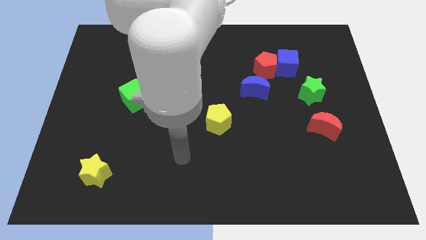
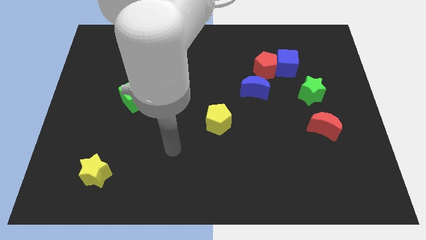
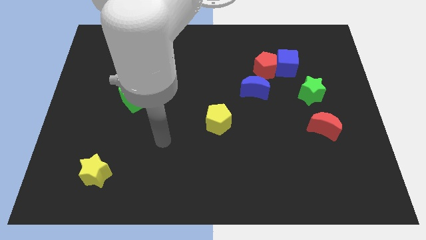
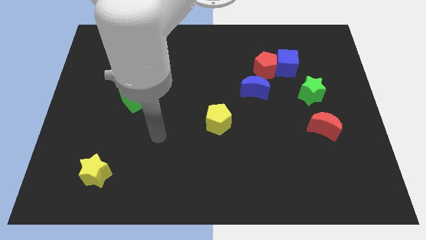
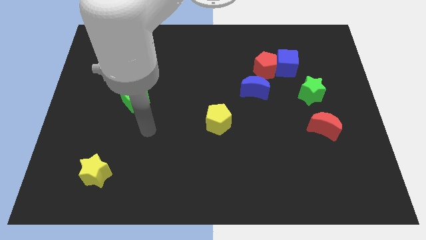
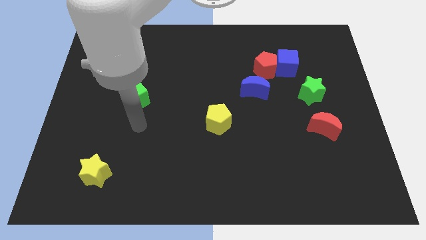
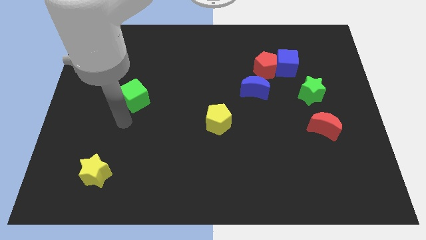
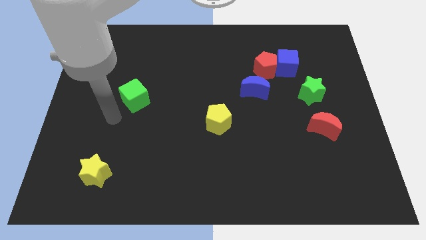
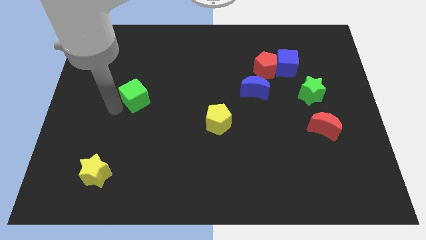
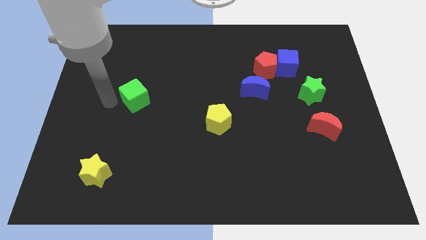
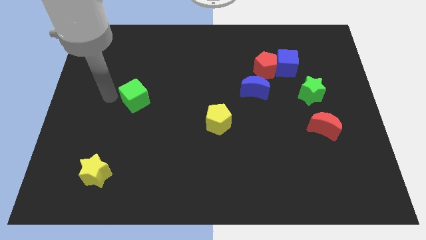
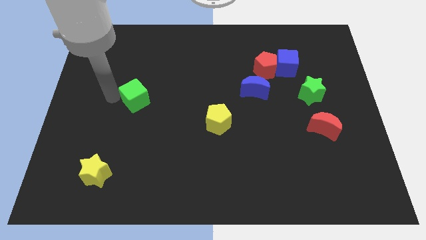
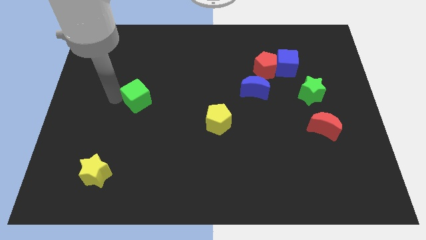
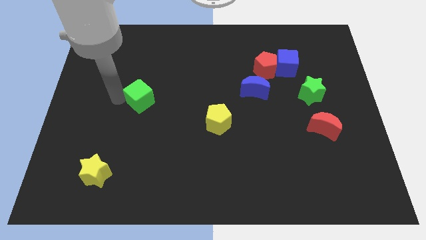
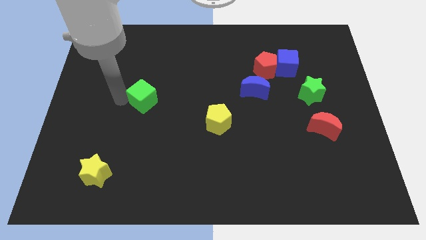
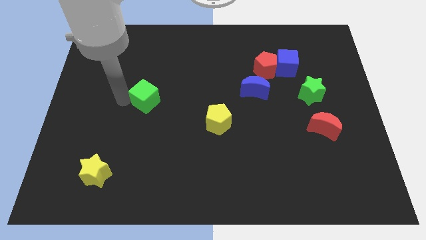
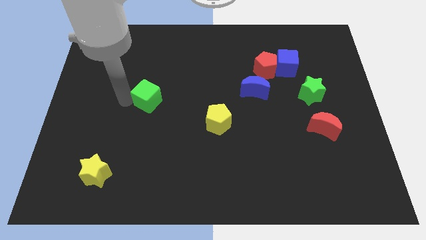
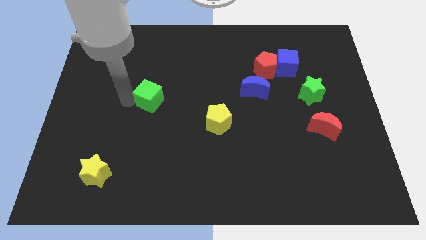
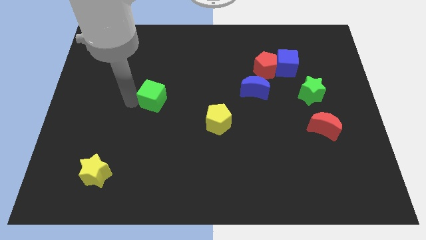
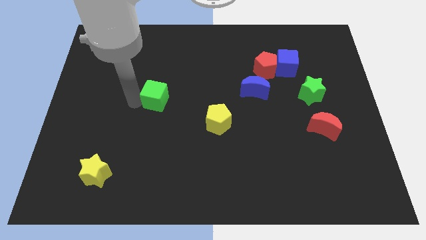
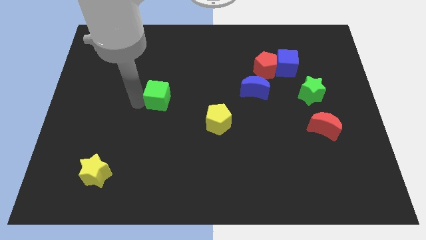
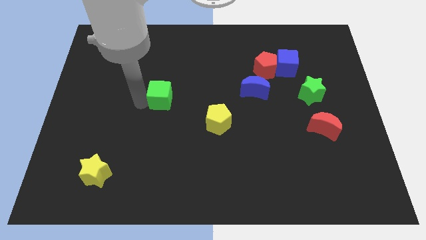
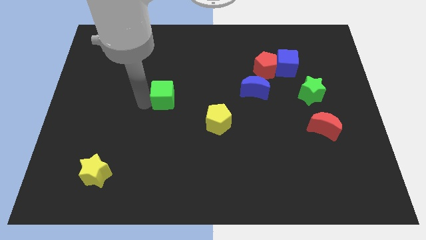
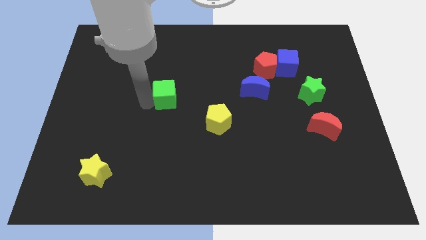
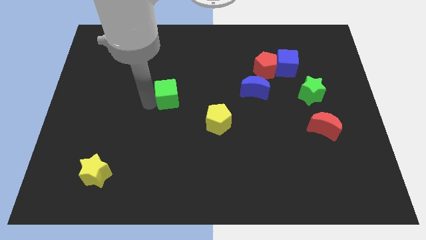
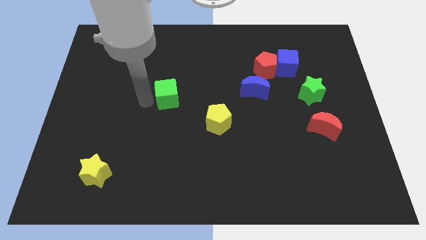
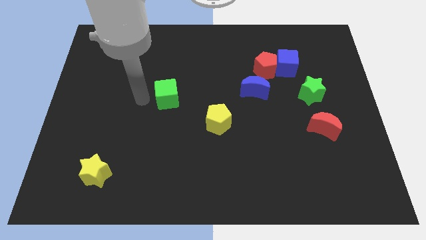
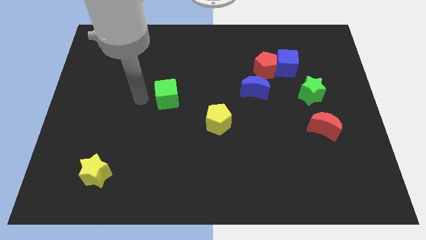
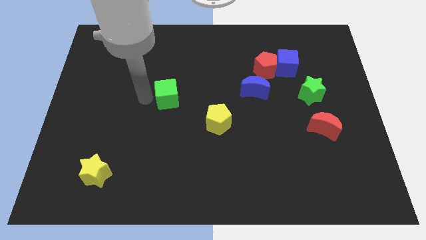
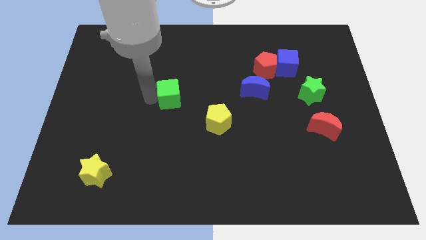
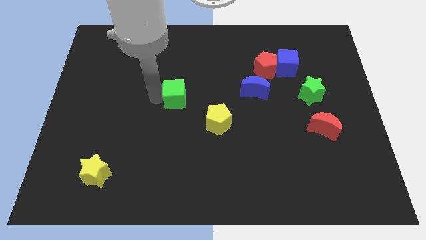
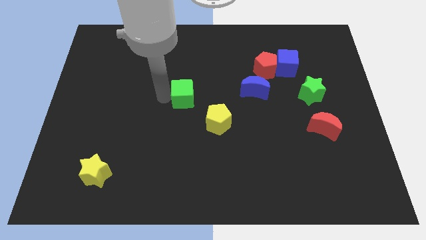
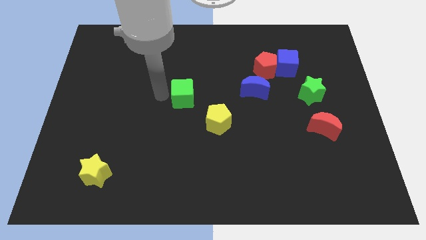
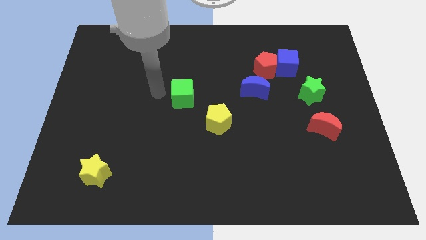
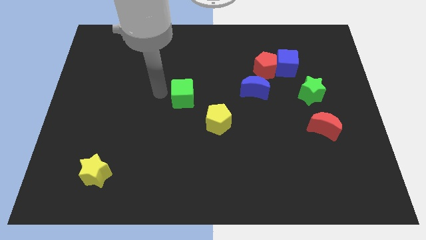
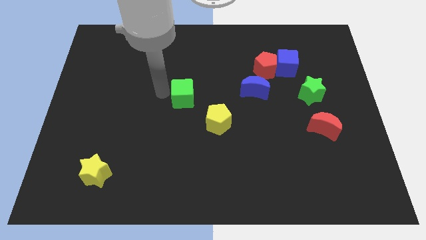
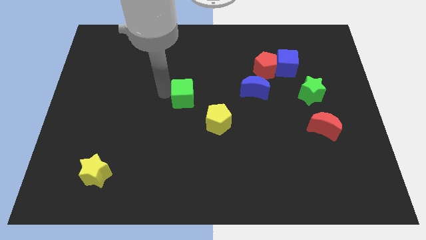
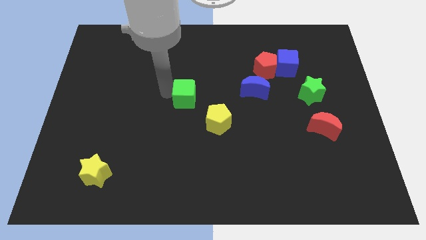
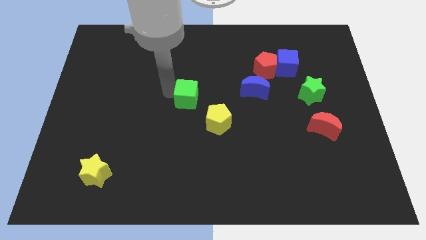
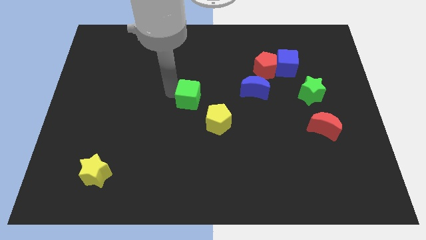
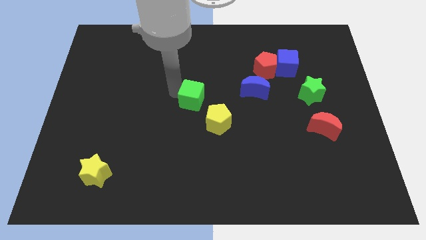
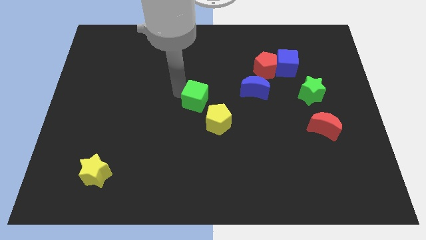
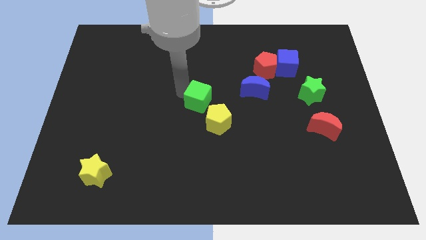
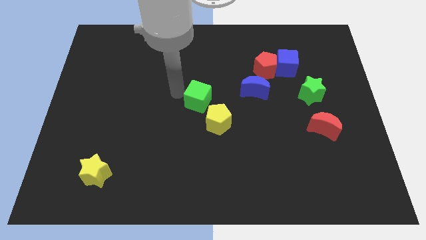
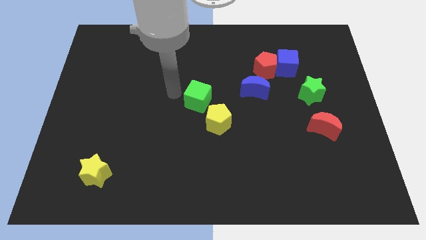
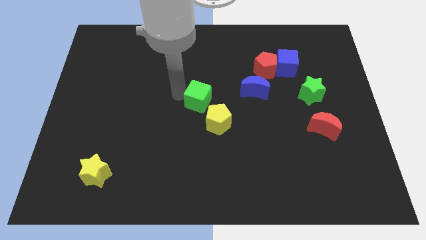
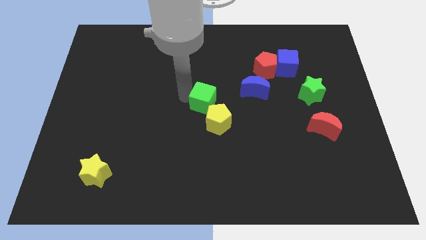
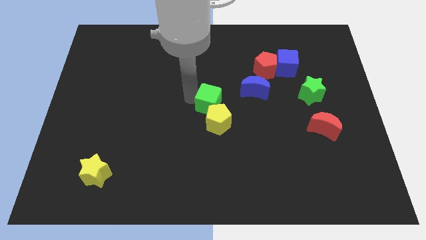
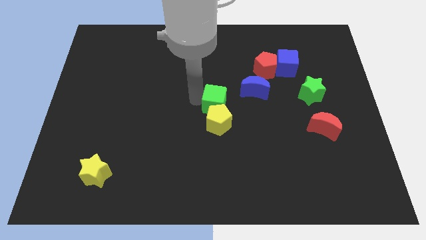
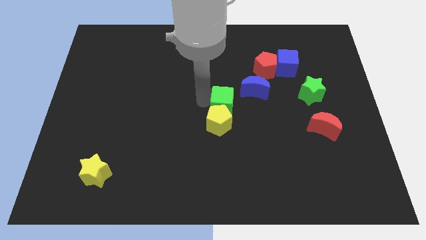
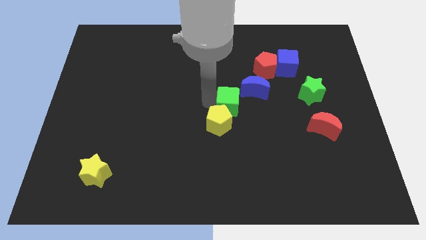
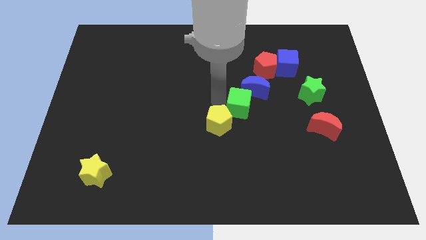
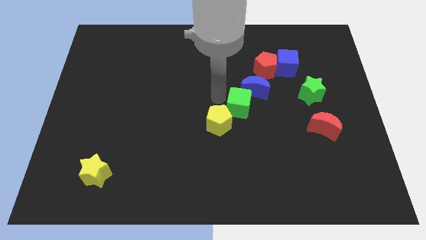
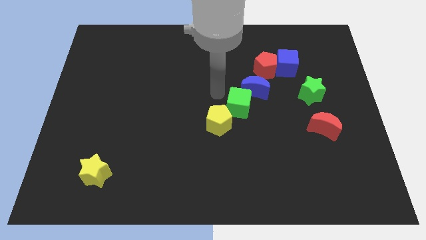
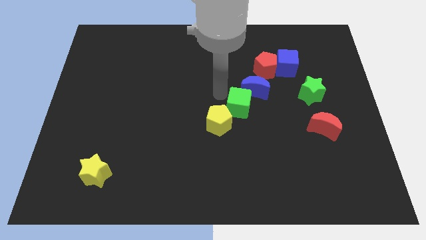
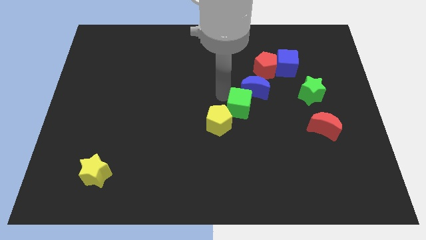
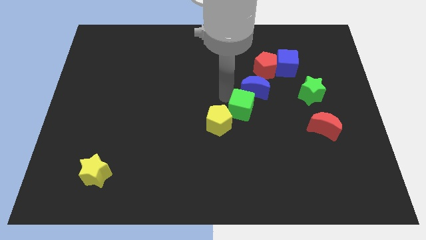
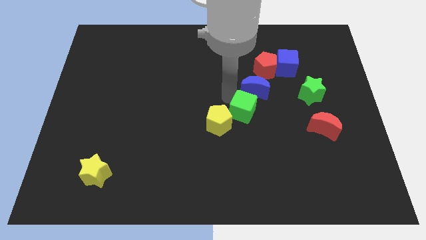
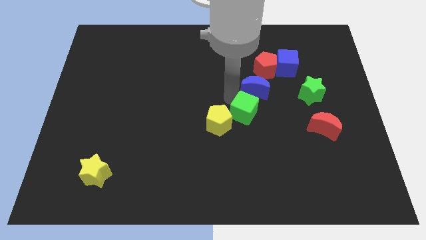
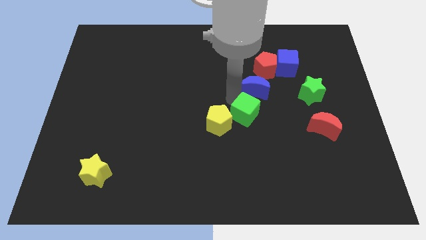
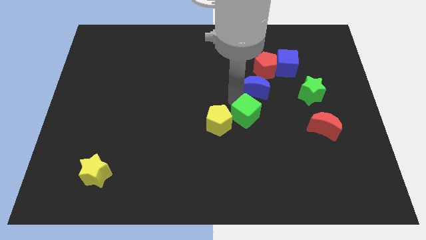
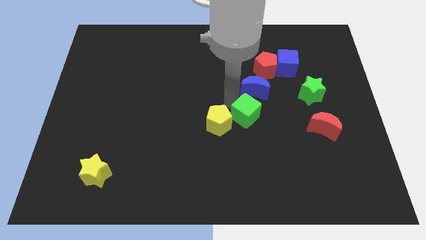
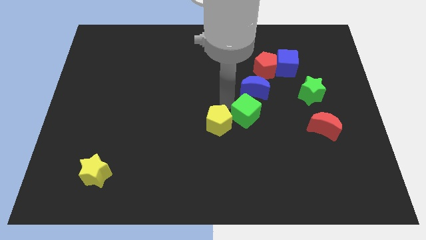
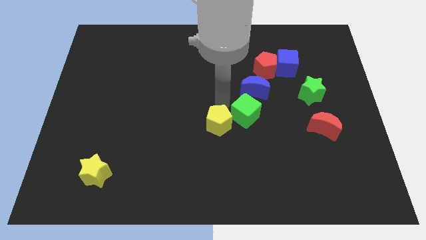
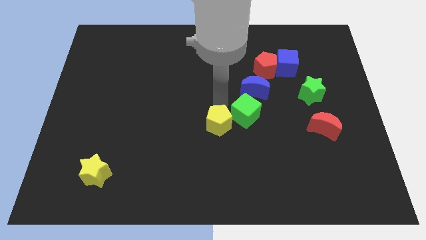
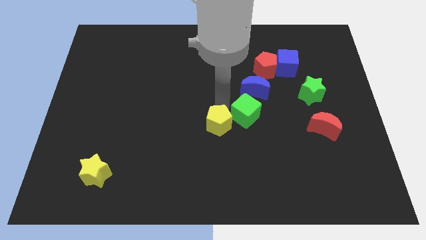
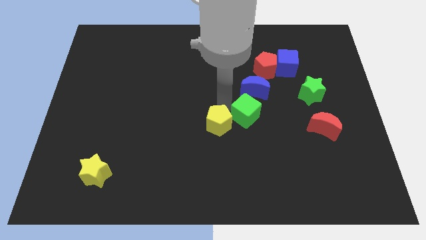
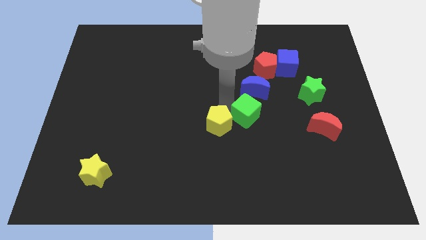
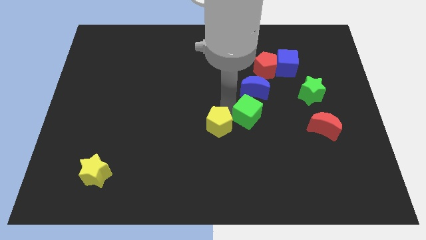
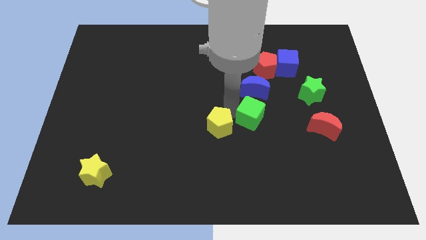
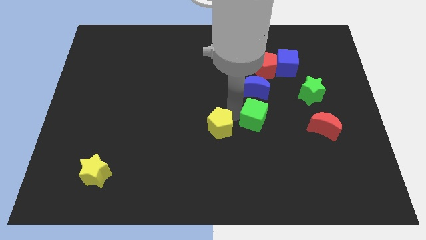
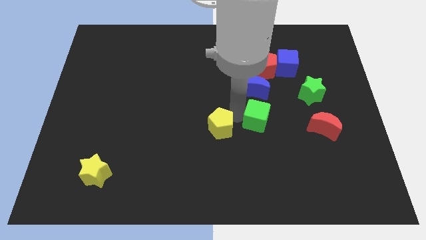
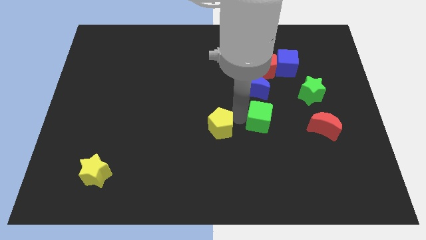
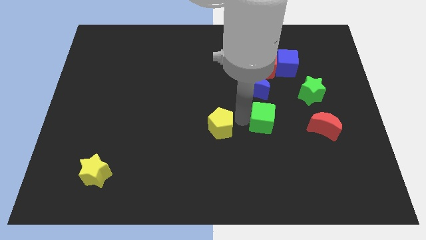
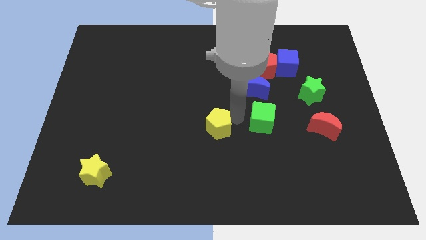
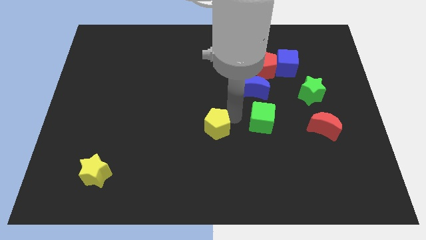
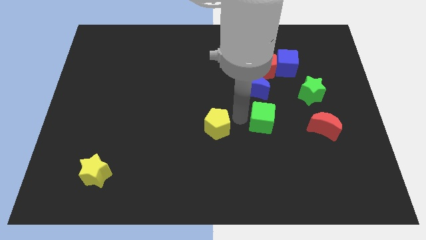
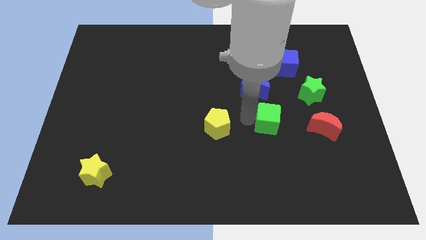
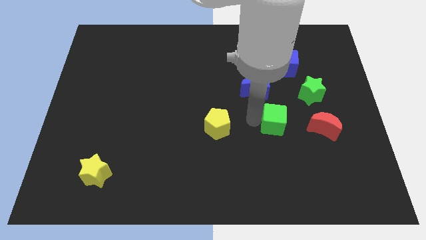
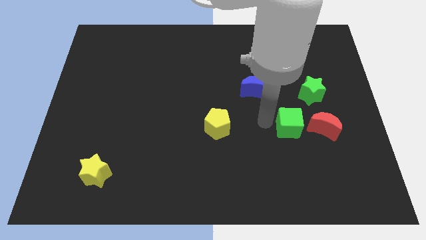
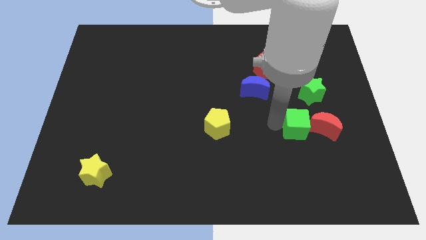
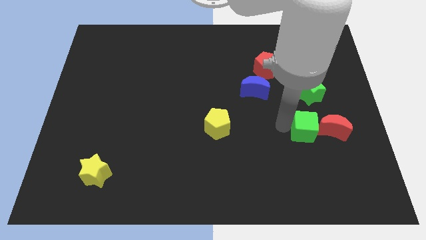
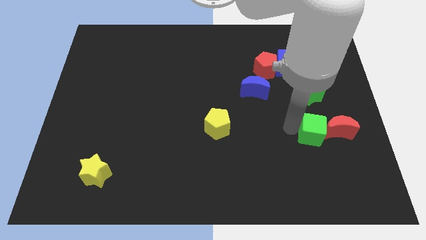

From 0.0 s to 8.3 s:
slide the green cube close to the red moon
